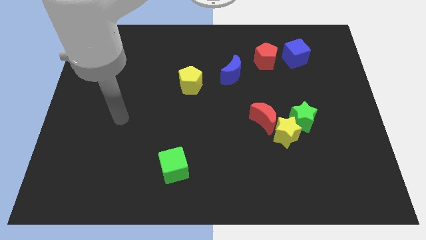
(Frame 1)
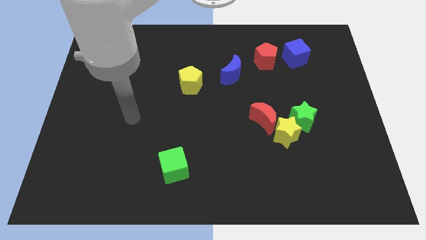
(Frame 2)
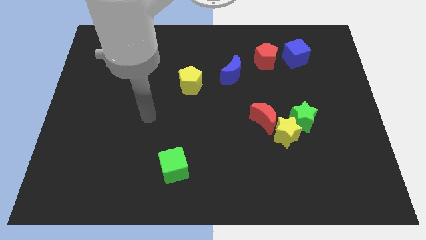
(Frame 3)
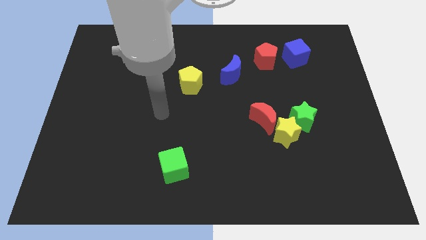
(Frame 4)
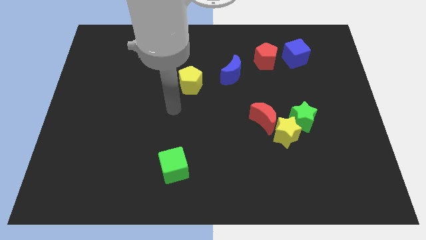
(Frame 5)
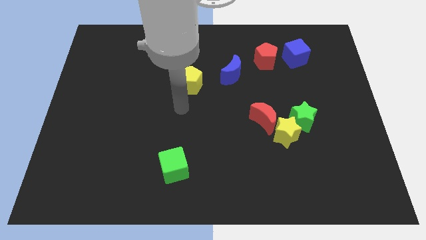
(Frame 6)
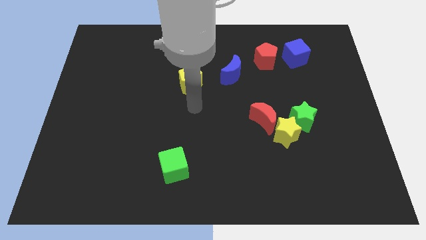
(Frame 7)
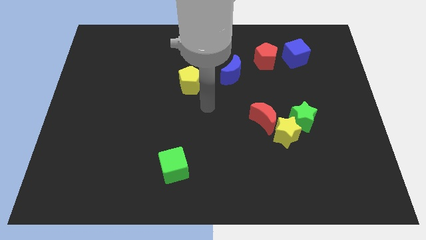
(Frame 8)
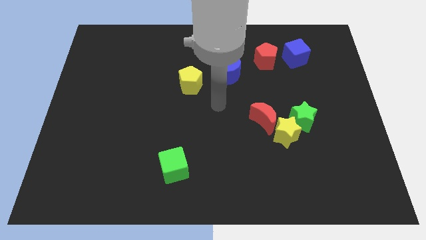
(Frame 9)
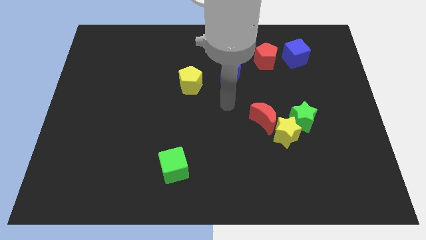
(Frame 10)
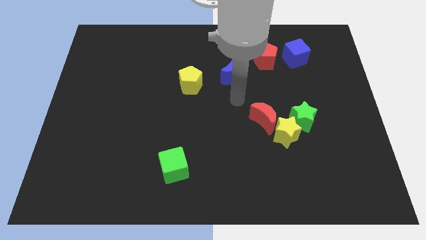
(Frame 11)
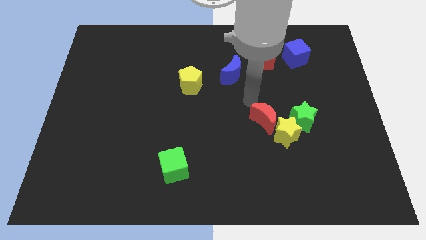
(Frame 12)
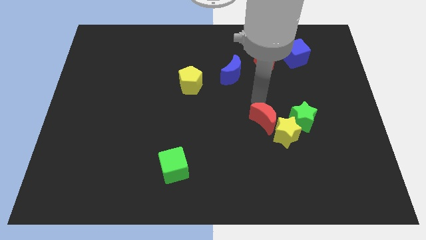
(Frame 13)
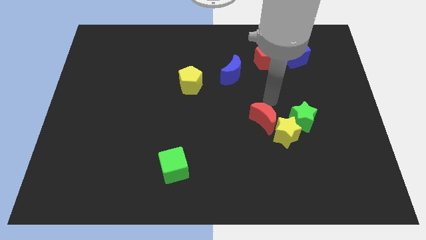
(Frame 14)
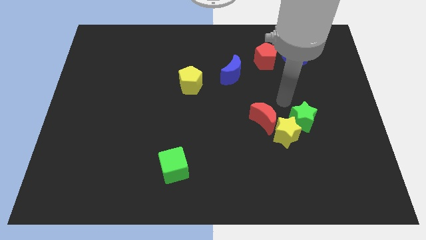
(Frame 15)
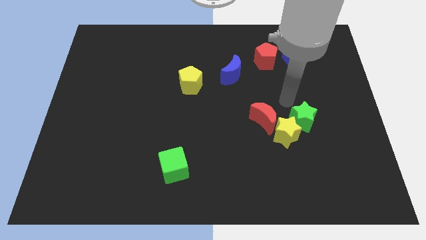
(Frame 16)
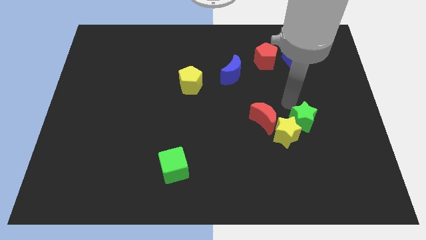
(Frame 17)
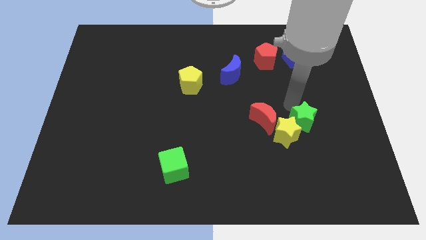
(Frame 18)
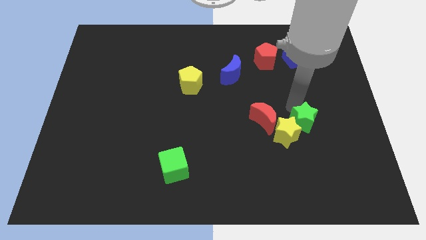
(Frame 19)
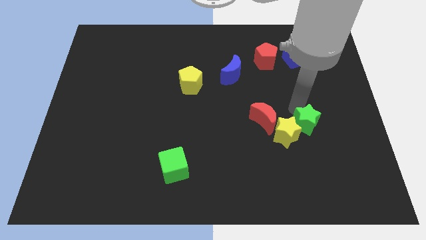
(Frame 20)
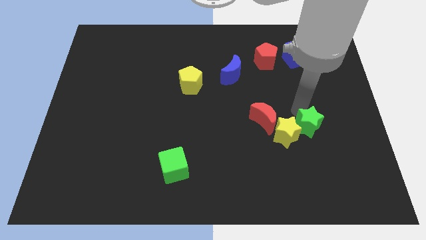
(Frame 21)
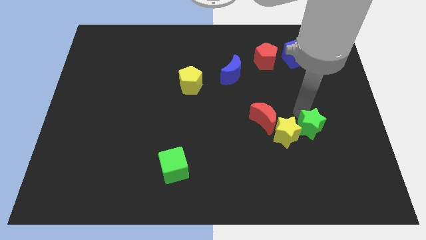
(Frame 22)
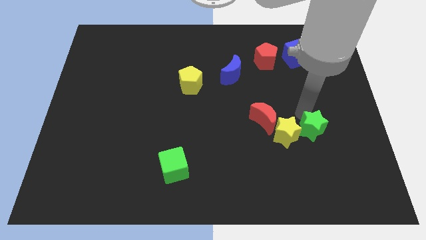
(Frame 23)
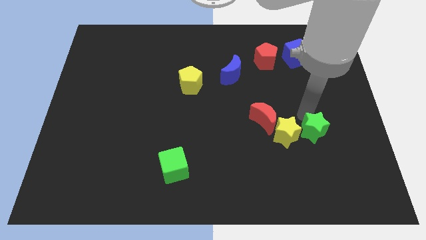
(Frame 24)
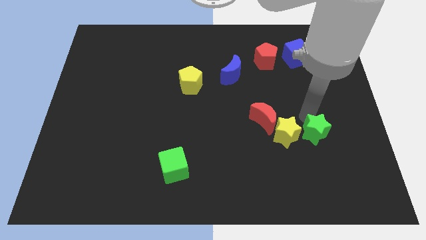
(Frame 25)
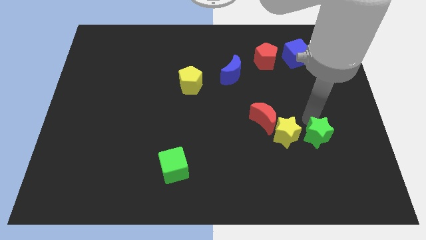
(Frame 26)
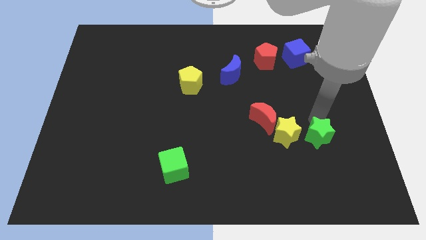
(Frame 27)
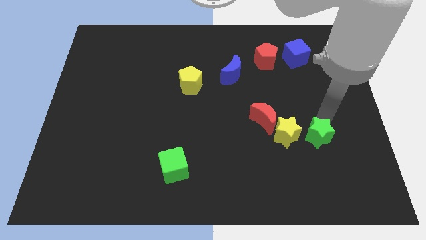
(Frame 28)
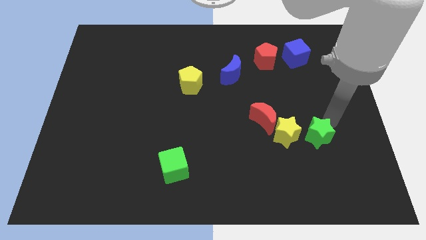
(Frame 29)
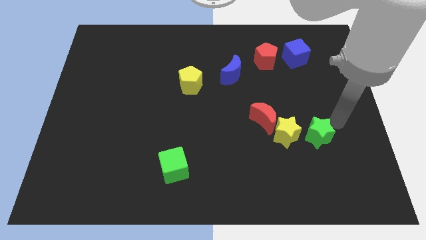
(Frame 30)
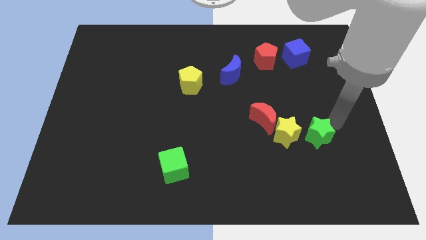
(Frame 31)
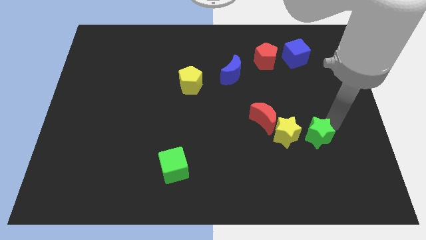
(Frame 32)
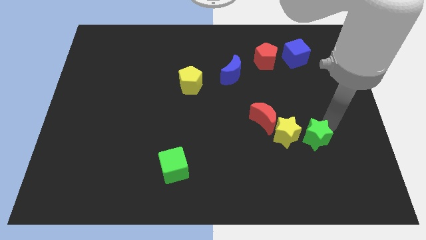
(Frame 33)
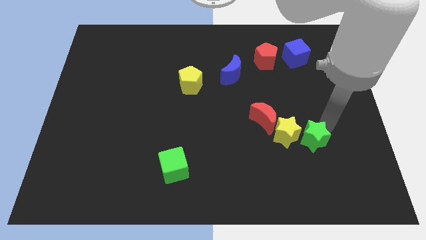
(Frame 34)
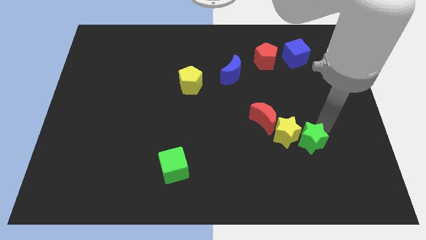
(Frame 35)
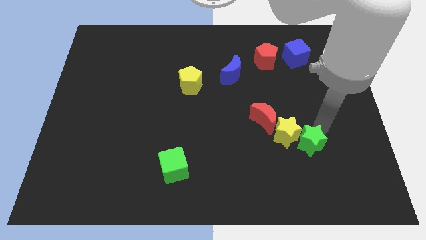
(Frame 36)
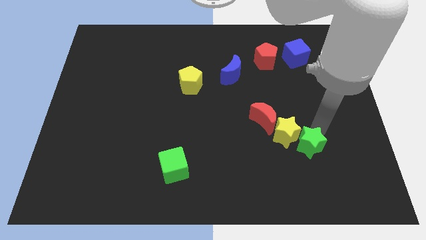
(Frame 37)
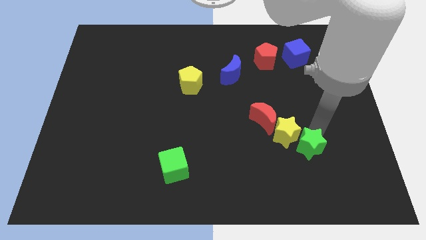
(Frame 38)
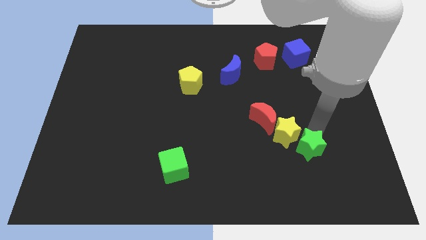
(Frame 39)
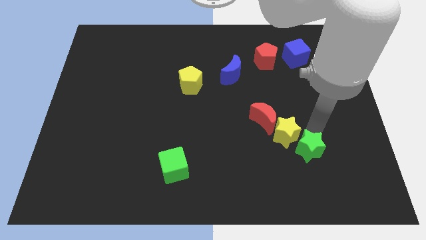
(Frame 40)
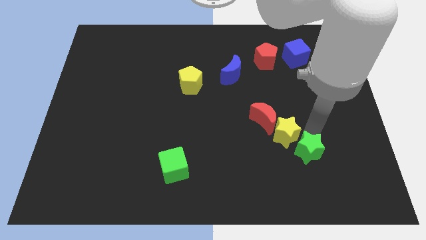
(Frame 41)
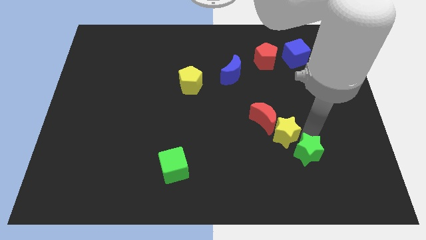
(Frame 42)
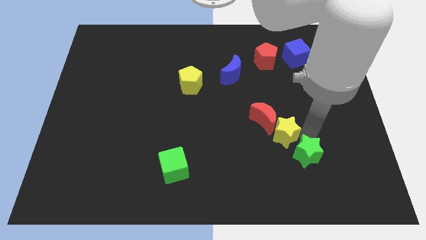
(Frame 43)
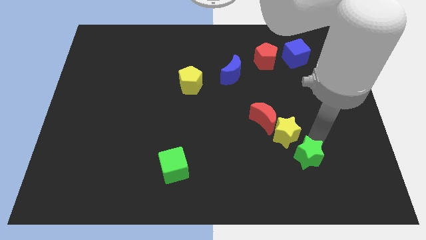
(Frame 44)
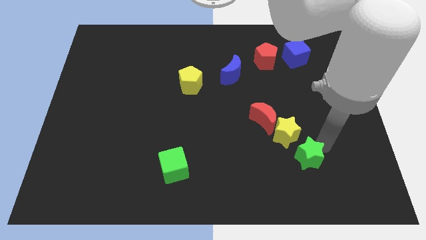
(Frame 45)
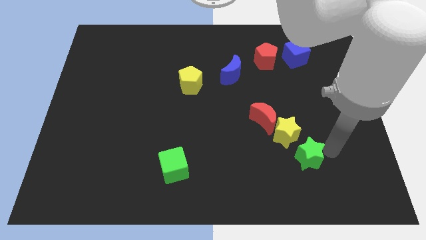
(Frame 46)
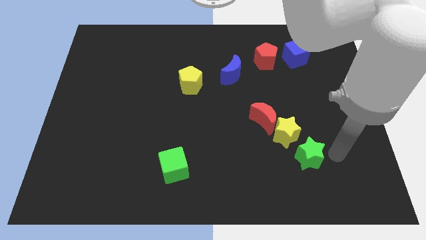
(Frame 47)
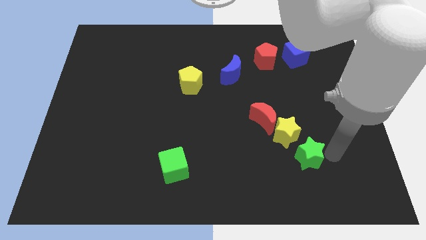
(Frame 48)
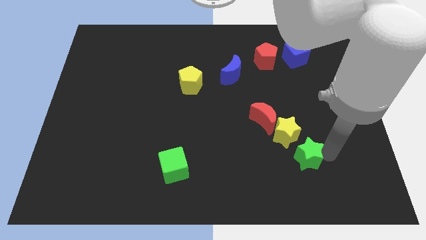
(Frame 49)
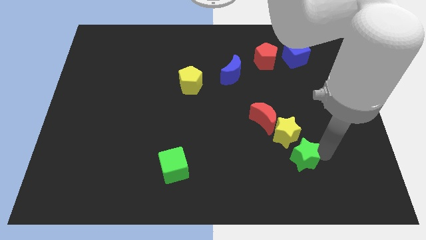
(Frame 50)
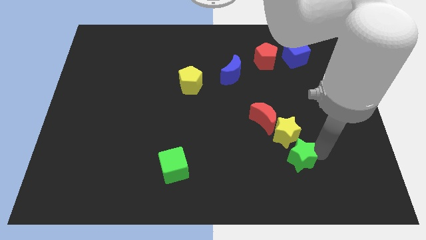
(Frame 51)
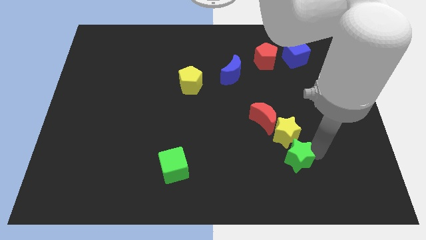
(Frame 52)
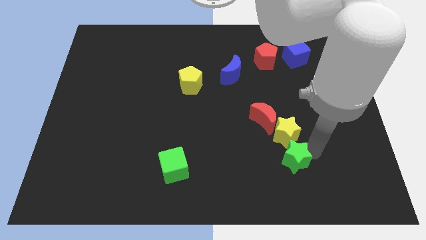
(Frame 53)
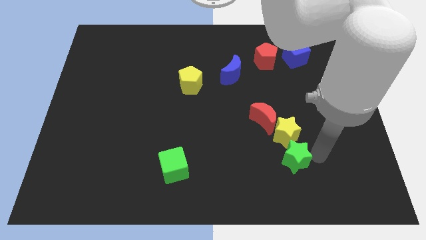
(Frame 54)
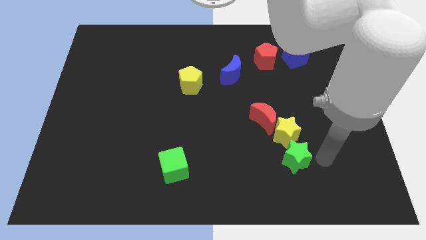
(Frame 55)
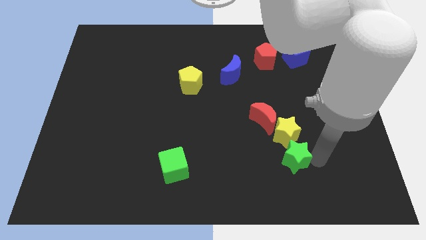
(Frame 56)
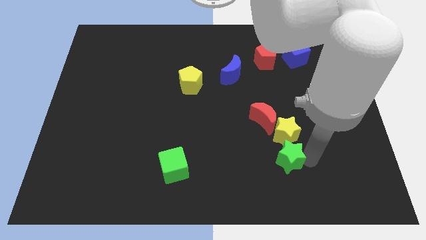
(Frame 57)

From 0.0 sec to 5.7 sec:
put the green star to the bottom of the red moon

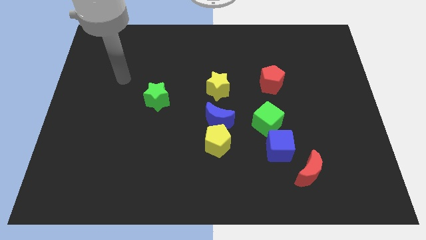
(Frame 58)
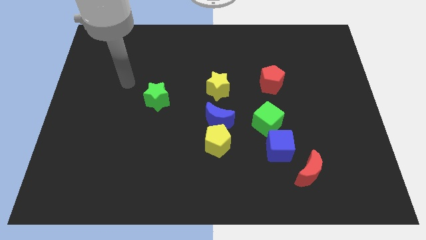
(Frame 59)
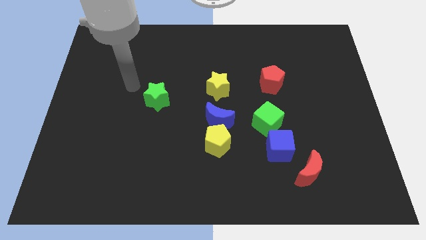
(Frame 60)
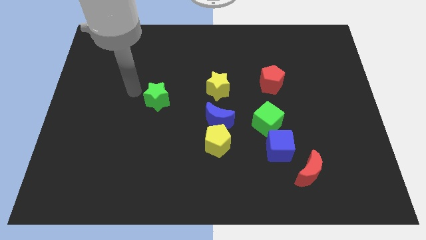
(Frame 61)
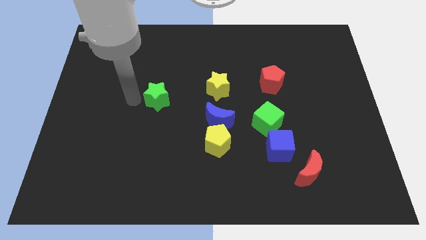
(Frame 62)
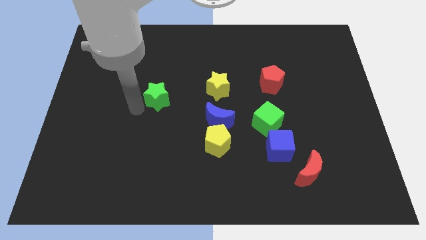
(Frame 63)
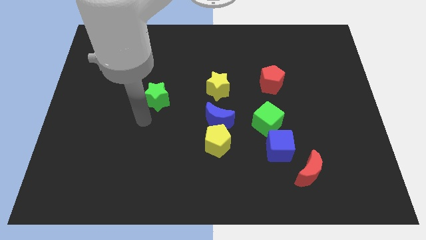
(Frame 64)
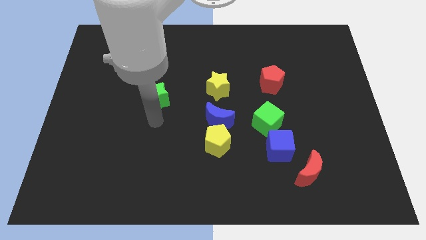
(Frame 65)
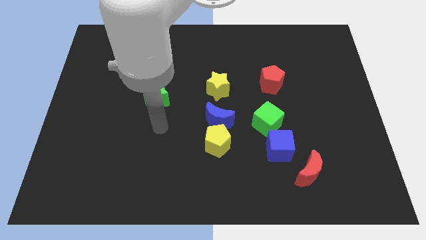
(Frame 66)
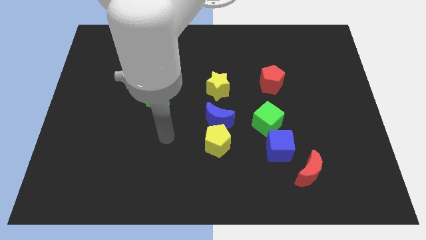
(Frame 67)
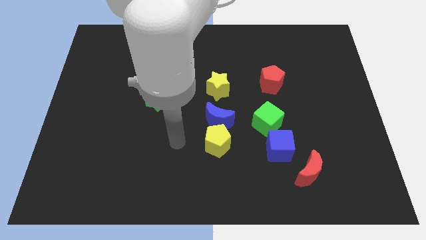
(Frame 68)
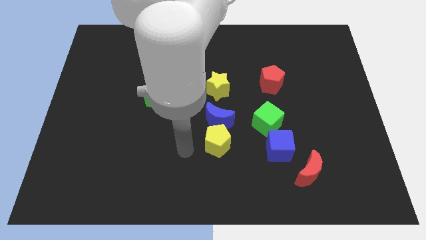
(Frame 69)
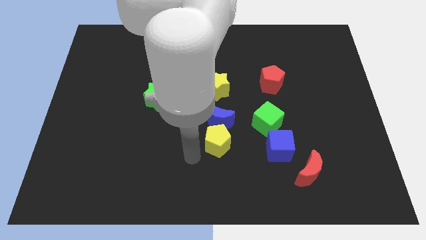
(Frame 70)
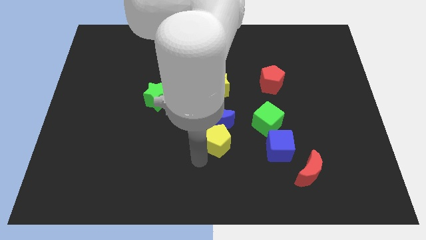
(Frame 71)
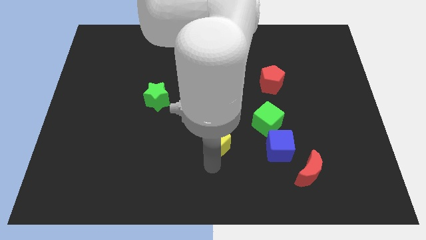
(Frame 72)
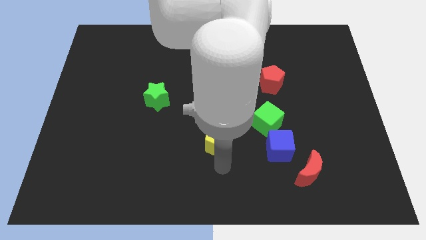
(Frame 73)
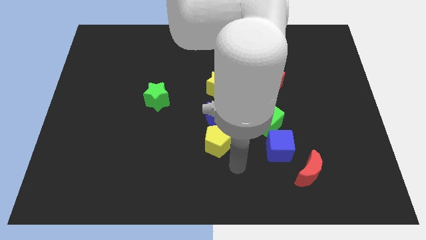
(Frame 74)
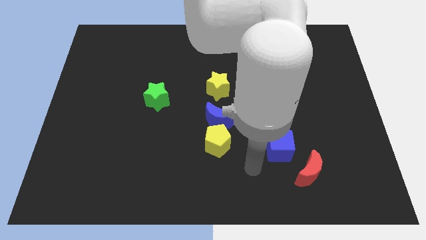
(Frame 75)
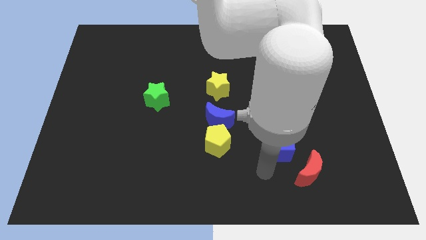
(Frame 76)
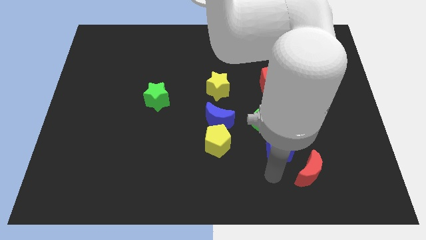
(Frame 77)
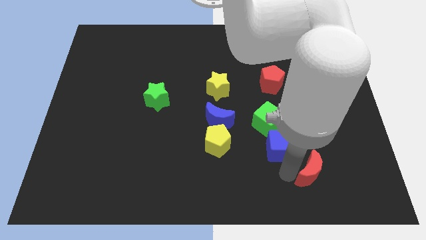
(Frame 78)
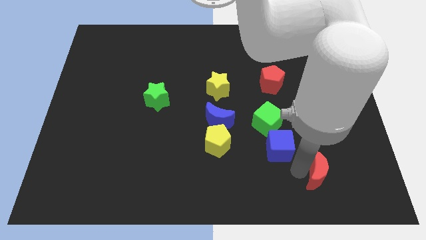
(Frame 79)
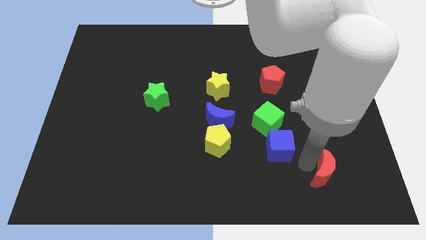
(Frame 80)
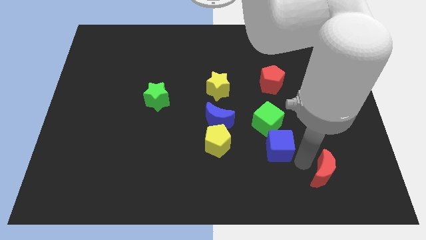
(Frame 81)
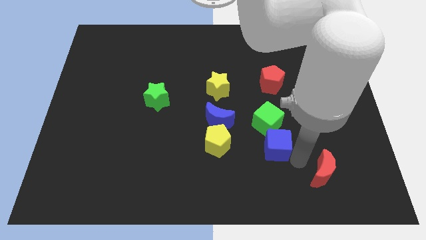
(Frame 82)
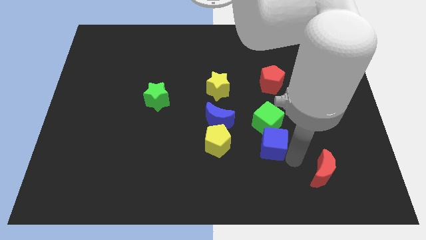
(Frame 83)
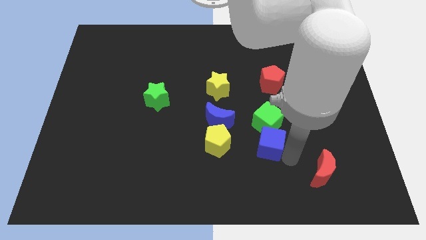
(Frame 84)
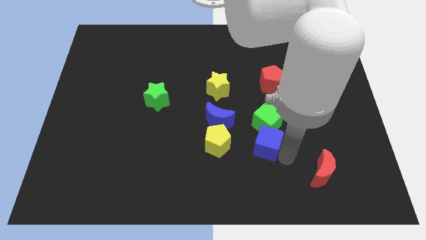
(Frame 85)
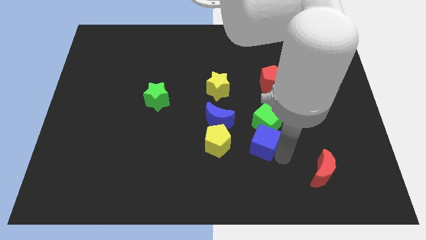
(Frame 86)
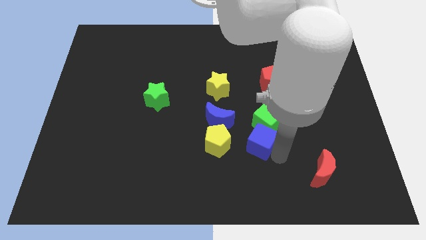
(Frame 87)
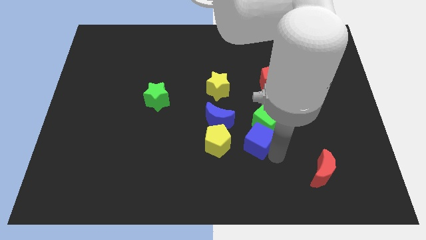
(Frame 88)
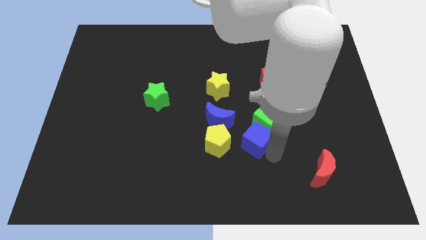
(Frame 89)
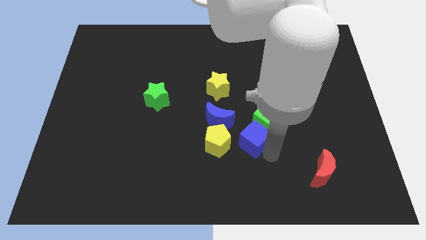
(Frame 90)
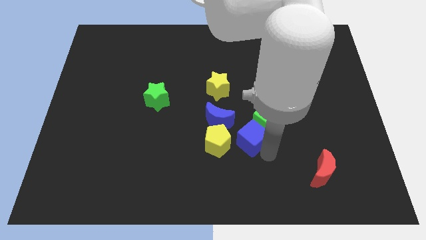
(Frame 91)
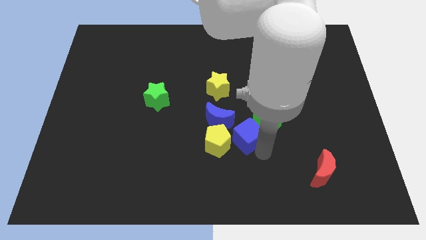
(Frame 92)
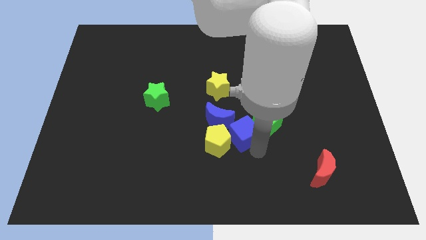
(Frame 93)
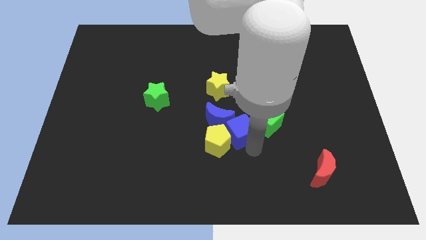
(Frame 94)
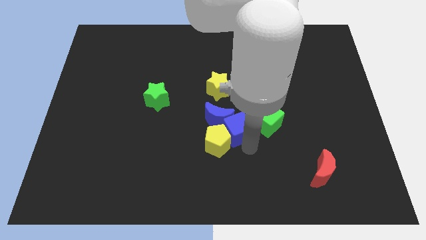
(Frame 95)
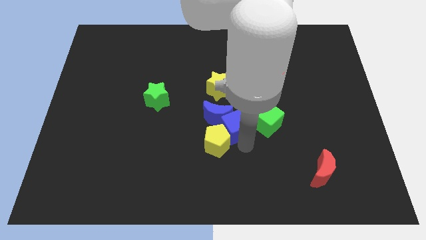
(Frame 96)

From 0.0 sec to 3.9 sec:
push the blue cube to the top of the yellow pentagon
